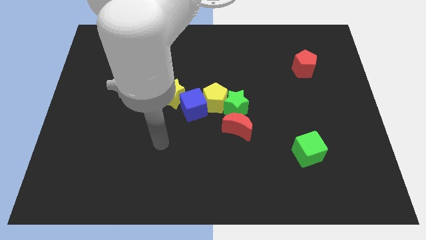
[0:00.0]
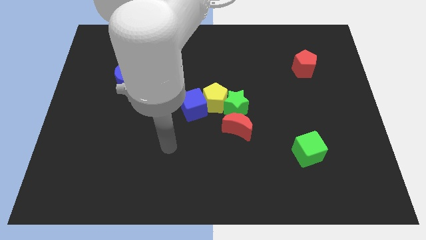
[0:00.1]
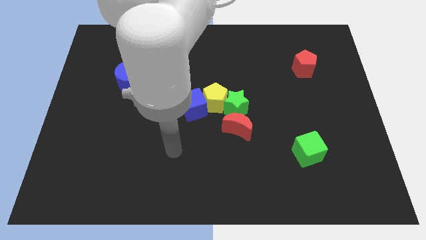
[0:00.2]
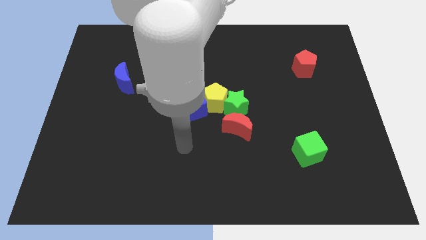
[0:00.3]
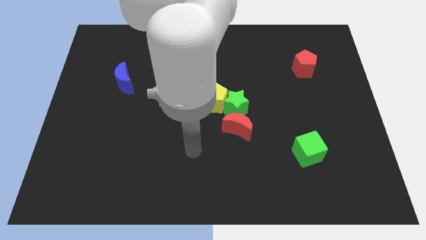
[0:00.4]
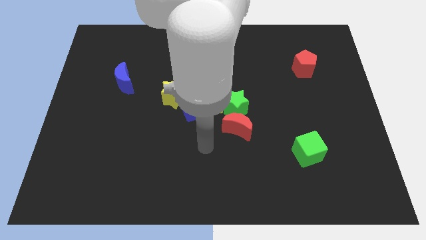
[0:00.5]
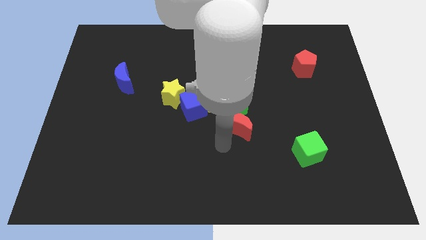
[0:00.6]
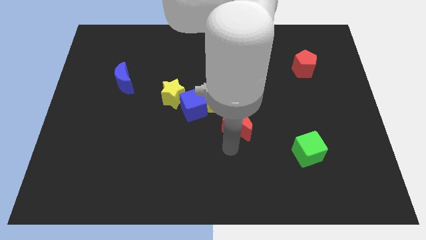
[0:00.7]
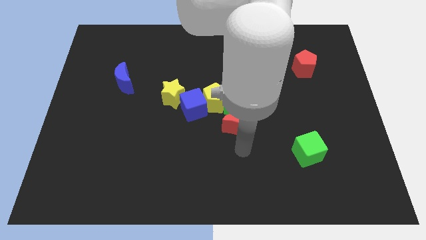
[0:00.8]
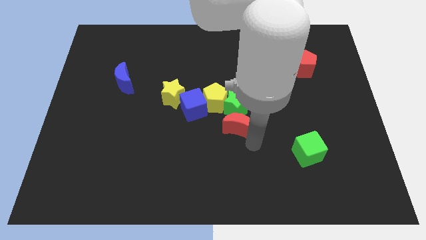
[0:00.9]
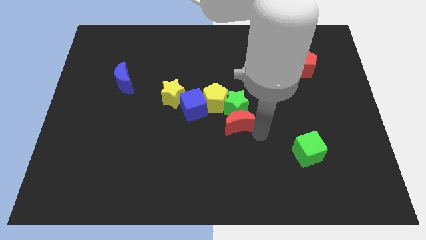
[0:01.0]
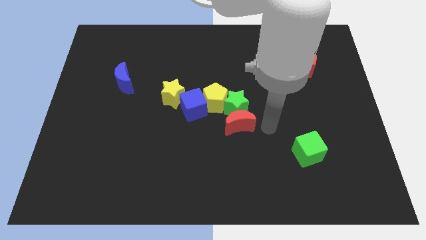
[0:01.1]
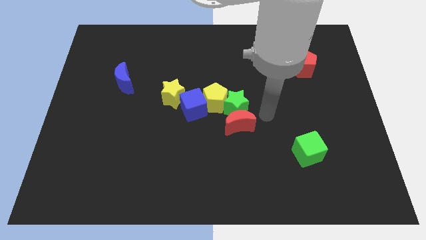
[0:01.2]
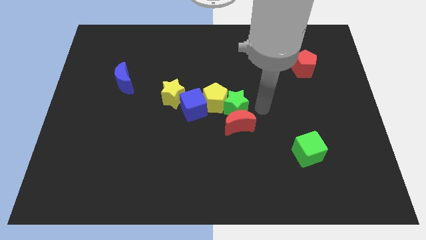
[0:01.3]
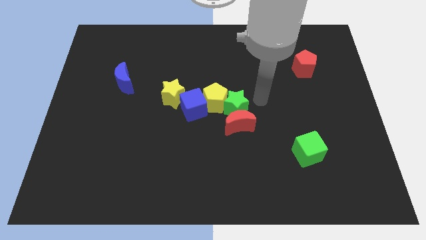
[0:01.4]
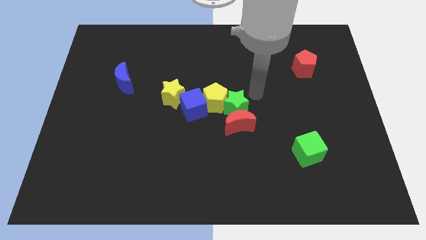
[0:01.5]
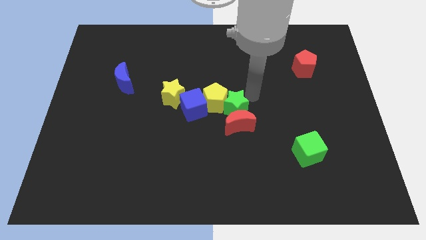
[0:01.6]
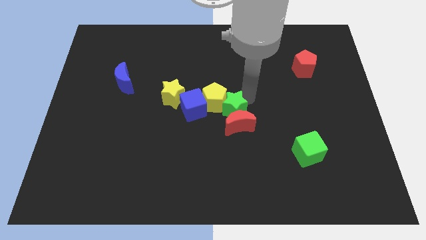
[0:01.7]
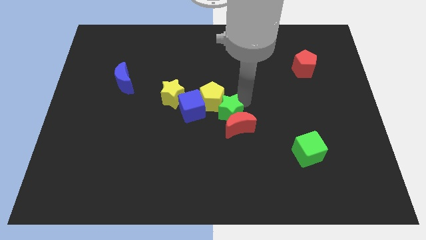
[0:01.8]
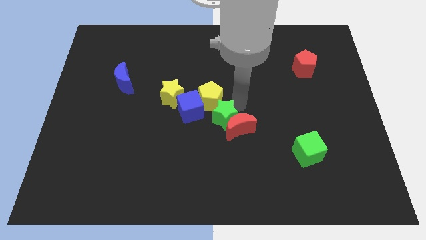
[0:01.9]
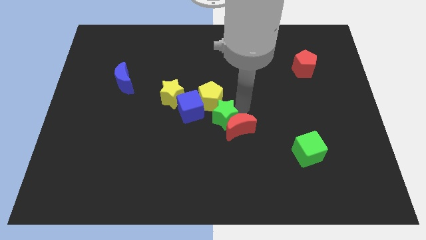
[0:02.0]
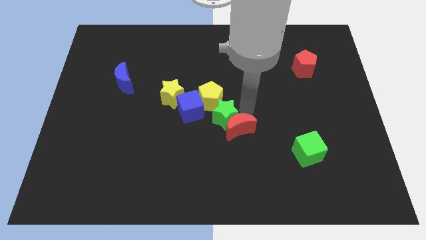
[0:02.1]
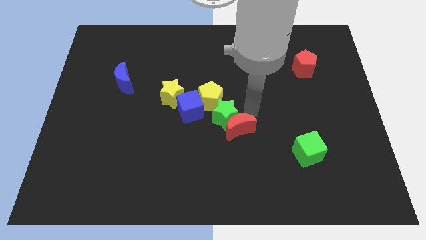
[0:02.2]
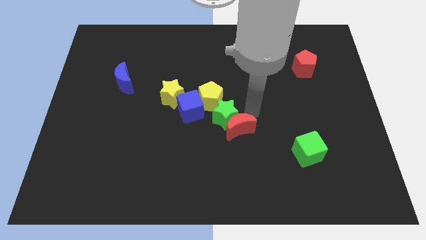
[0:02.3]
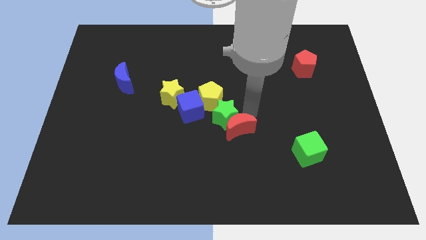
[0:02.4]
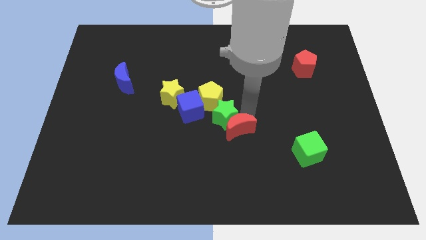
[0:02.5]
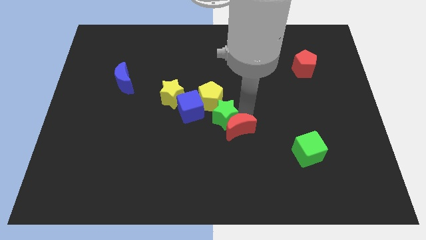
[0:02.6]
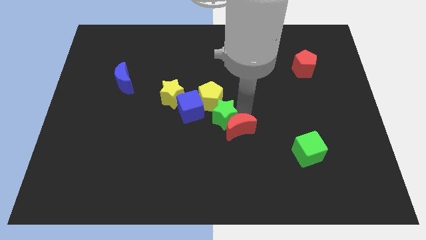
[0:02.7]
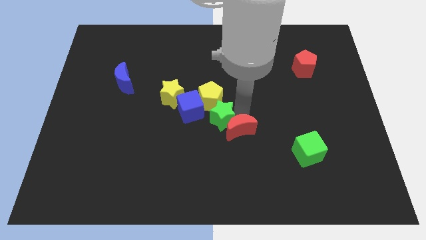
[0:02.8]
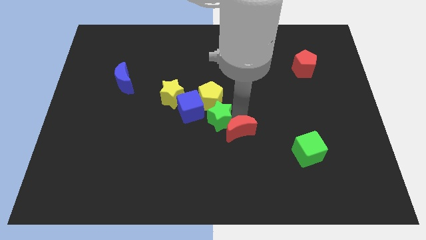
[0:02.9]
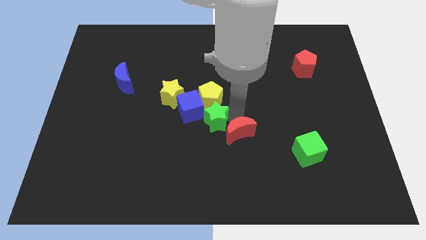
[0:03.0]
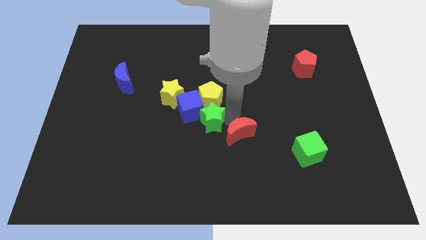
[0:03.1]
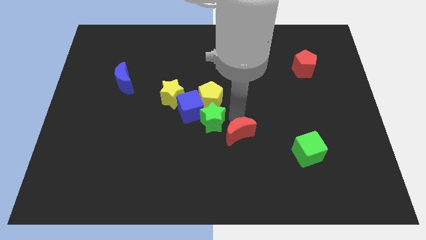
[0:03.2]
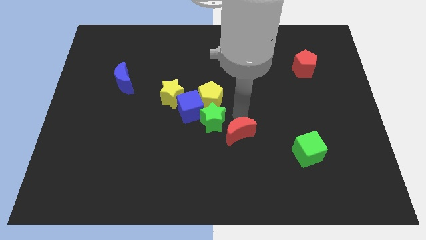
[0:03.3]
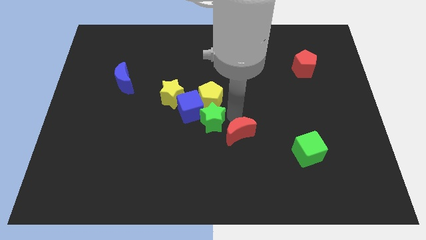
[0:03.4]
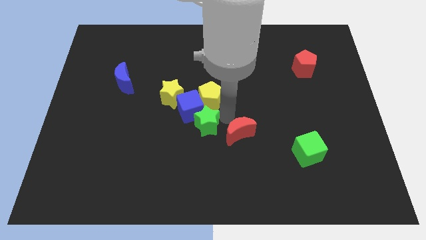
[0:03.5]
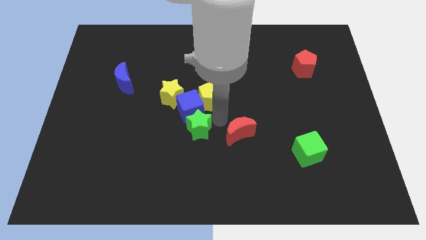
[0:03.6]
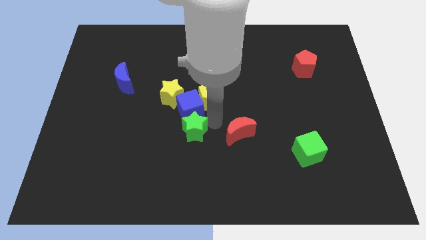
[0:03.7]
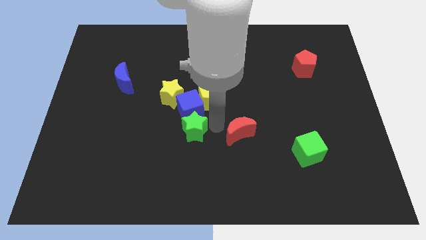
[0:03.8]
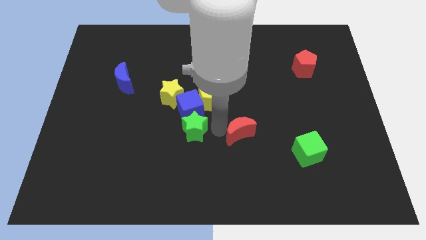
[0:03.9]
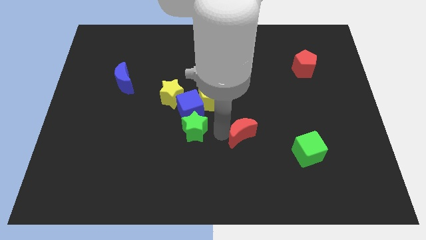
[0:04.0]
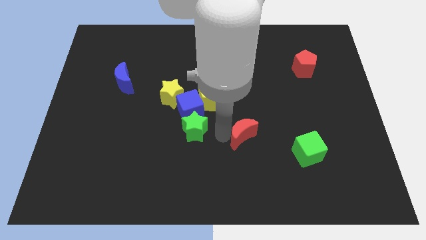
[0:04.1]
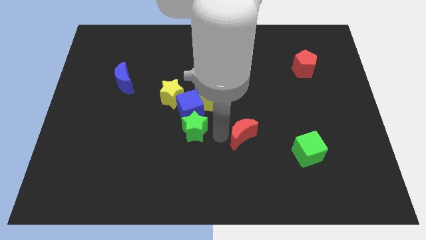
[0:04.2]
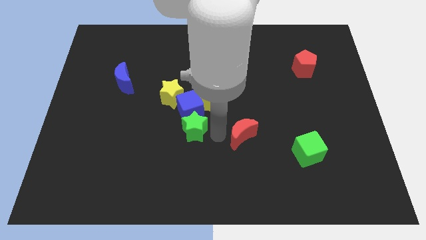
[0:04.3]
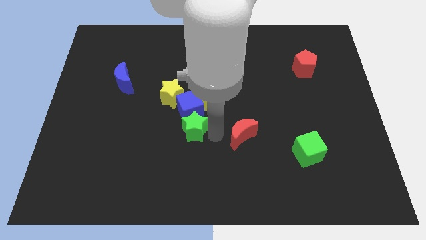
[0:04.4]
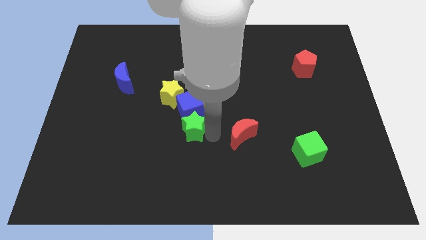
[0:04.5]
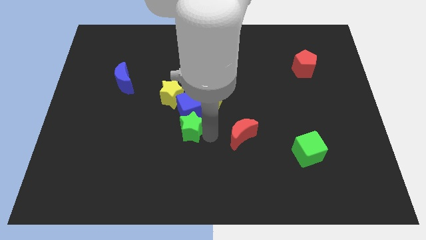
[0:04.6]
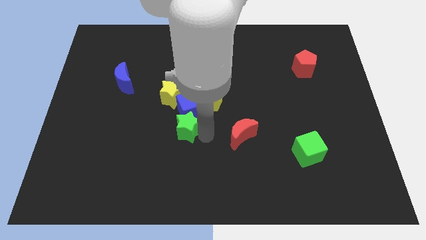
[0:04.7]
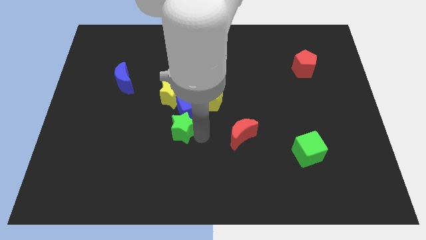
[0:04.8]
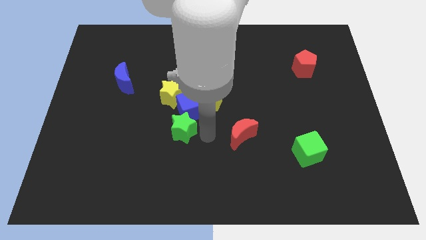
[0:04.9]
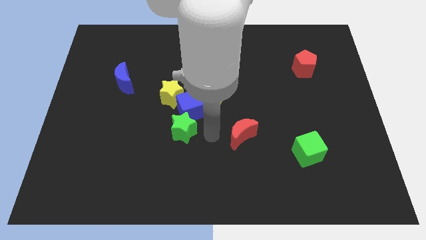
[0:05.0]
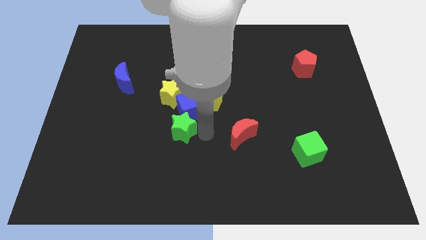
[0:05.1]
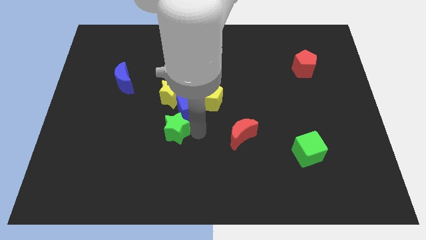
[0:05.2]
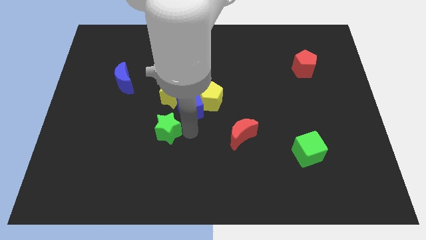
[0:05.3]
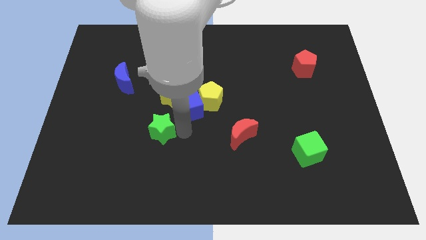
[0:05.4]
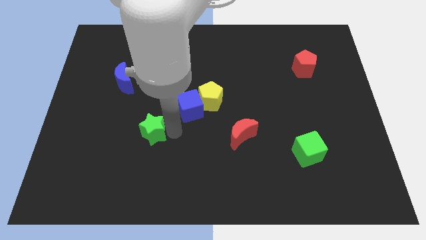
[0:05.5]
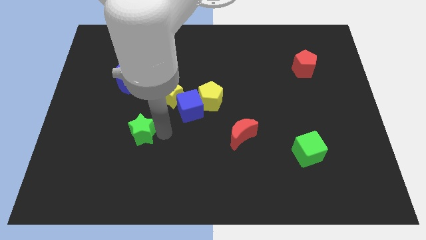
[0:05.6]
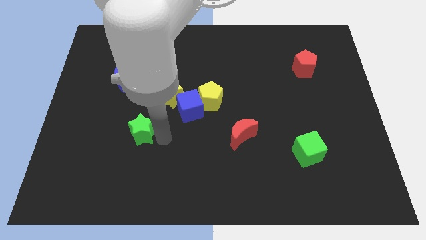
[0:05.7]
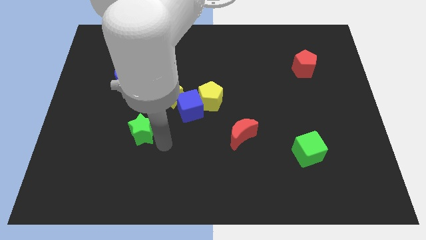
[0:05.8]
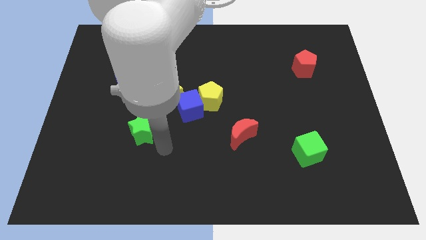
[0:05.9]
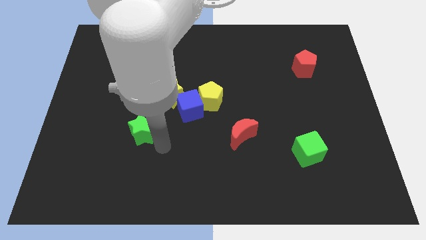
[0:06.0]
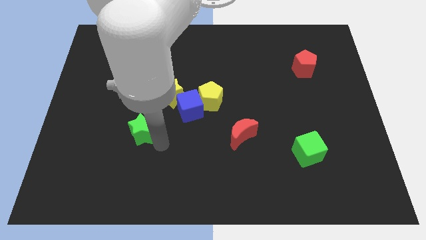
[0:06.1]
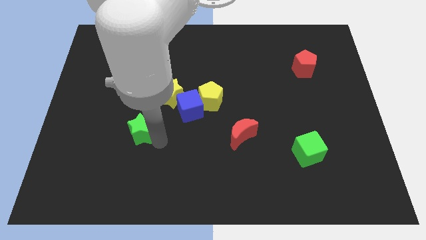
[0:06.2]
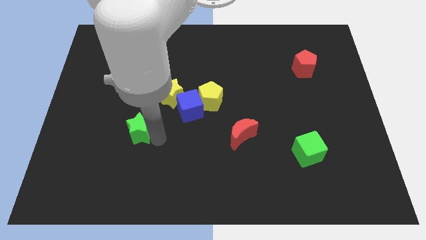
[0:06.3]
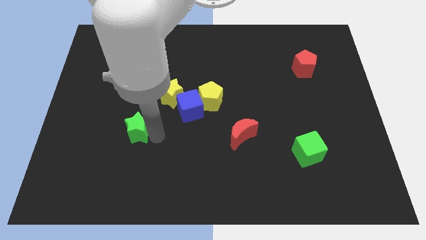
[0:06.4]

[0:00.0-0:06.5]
push the green star to the left

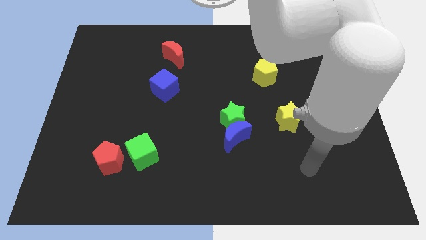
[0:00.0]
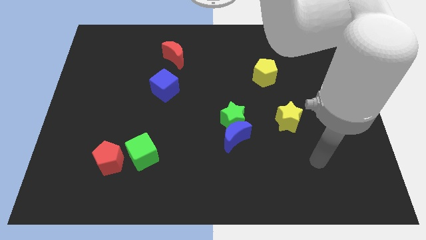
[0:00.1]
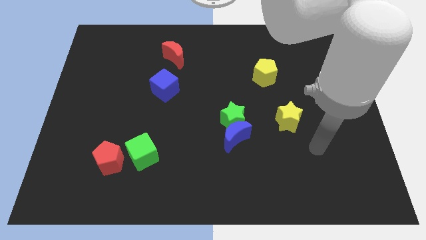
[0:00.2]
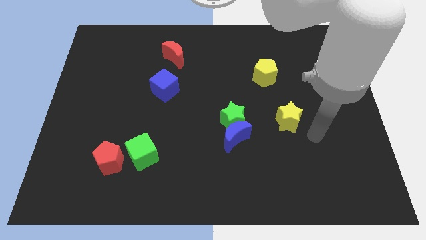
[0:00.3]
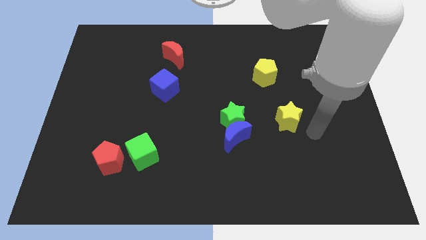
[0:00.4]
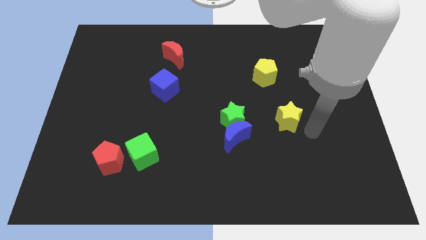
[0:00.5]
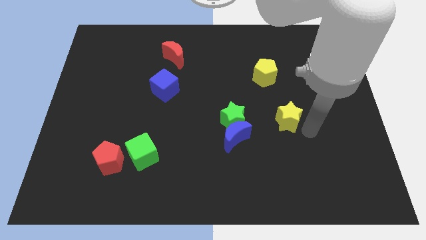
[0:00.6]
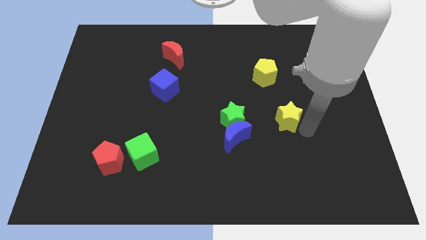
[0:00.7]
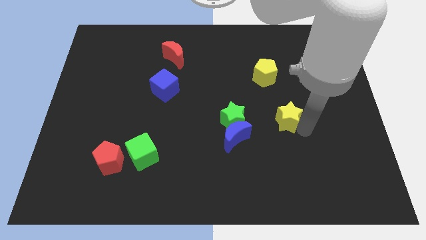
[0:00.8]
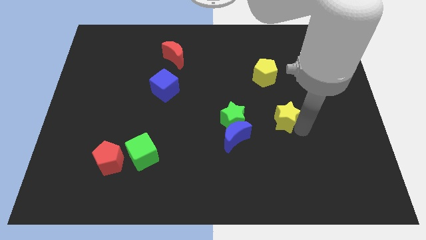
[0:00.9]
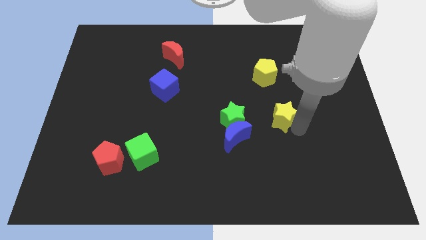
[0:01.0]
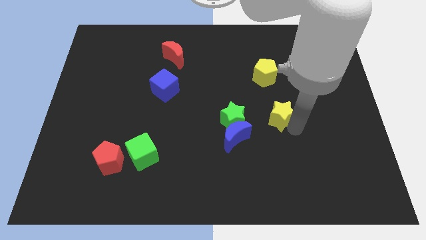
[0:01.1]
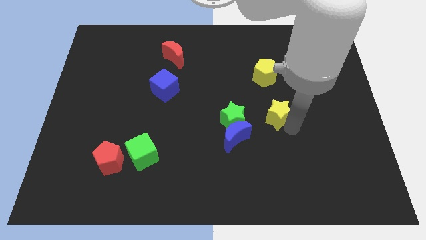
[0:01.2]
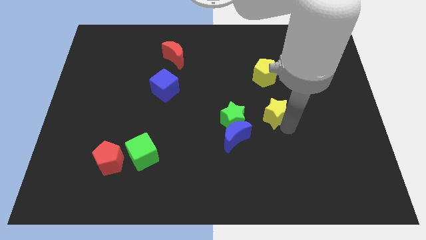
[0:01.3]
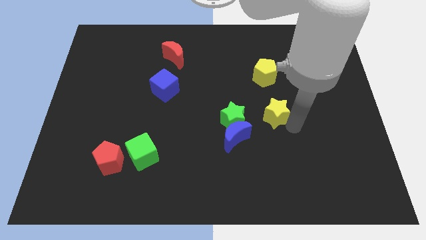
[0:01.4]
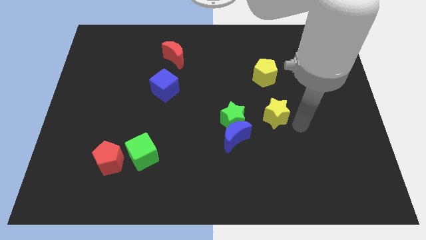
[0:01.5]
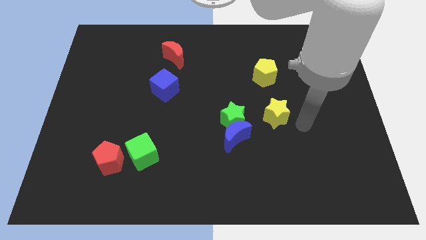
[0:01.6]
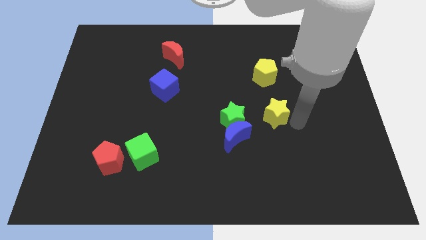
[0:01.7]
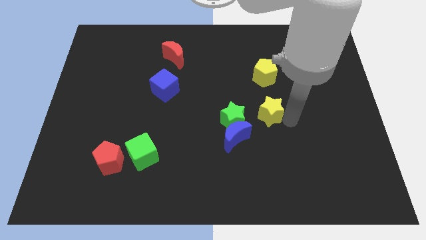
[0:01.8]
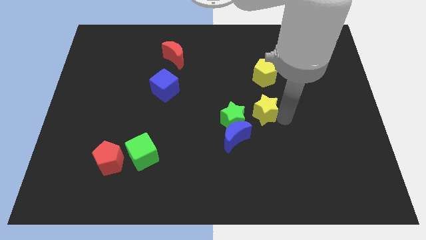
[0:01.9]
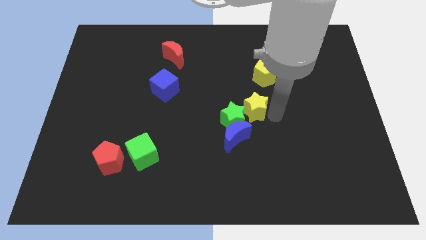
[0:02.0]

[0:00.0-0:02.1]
slightly push the yellow star left
